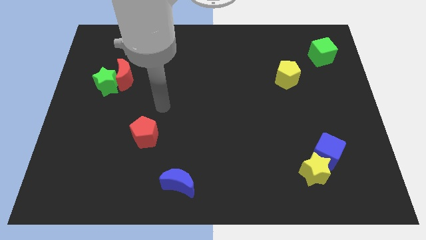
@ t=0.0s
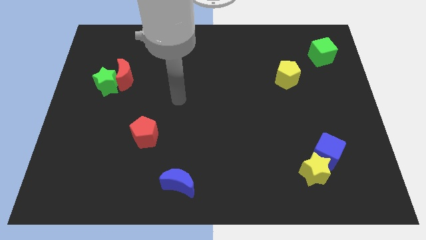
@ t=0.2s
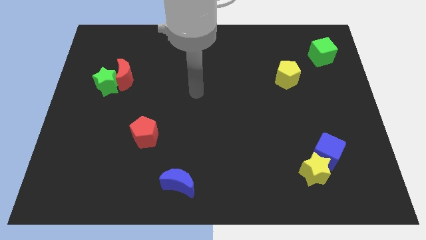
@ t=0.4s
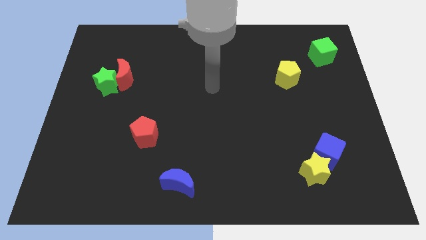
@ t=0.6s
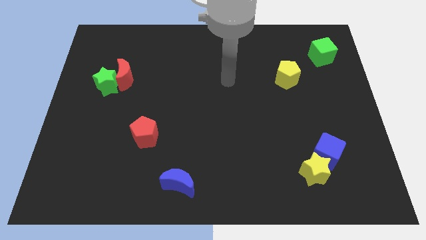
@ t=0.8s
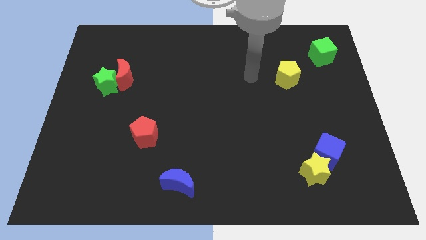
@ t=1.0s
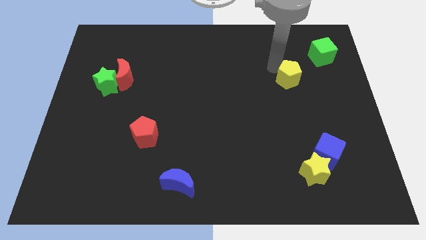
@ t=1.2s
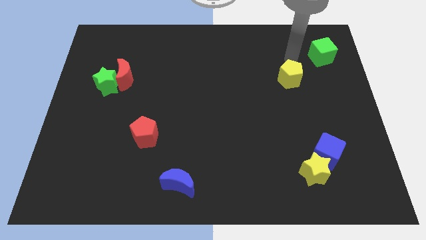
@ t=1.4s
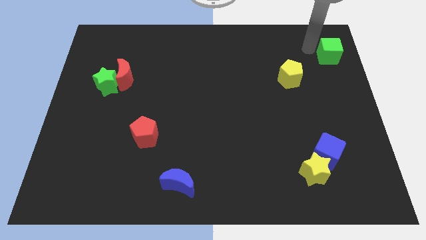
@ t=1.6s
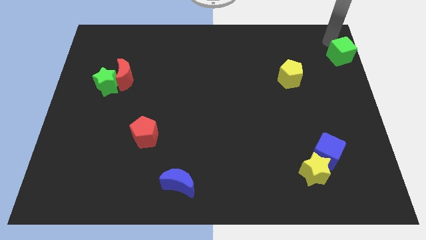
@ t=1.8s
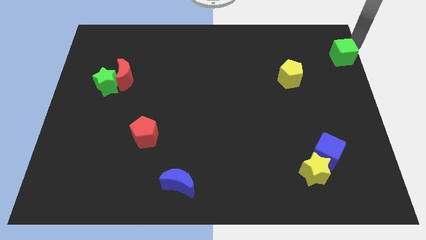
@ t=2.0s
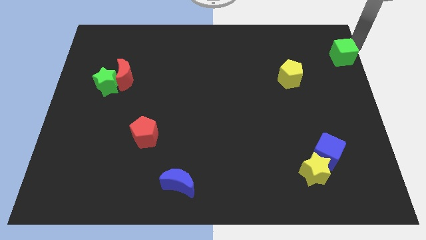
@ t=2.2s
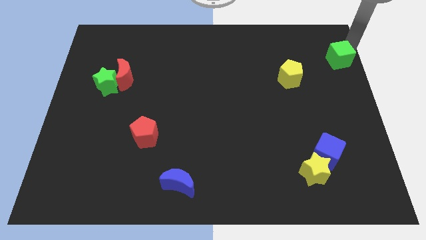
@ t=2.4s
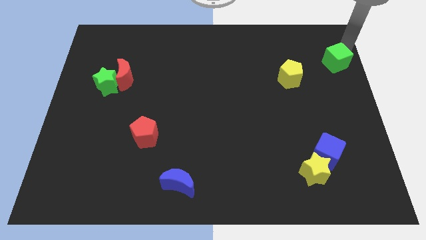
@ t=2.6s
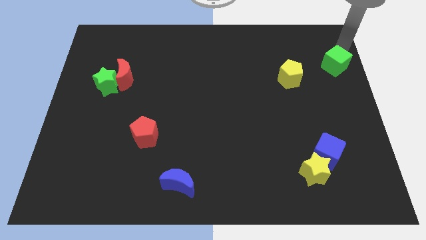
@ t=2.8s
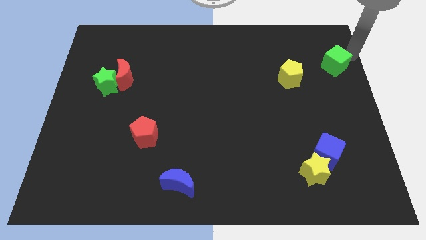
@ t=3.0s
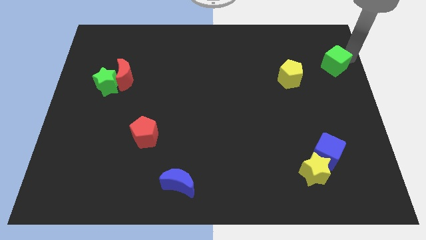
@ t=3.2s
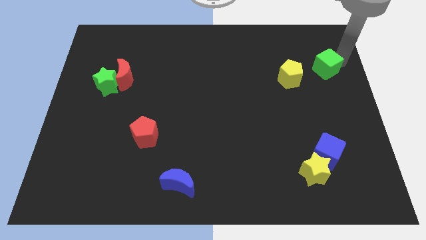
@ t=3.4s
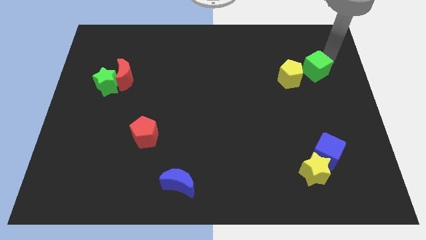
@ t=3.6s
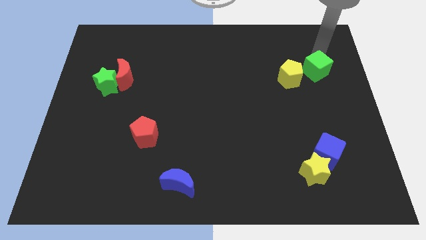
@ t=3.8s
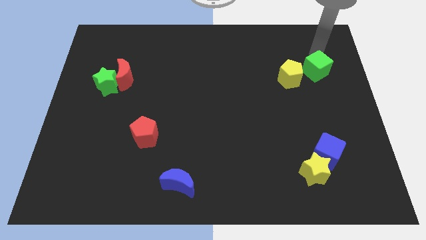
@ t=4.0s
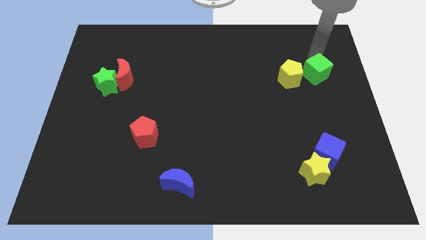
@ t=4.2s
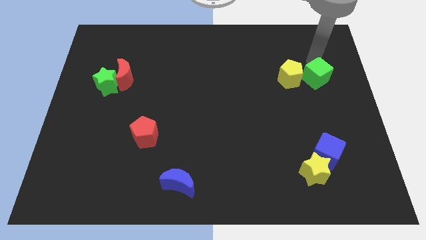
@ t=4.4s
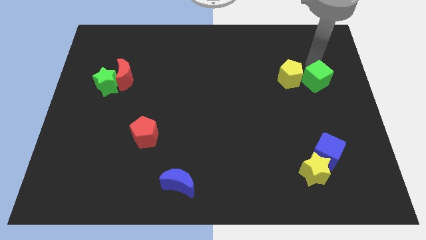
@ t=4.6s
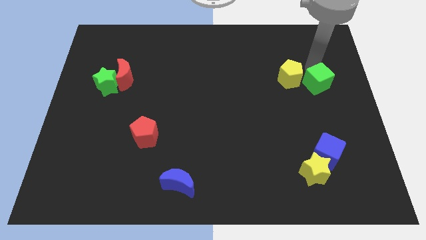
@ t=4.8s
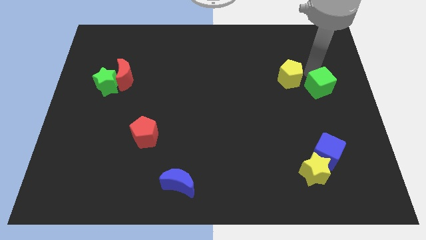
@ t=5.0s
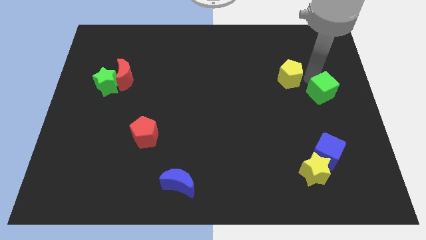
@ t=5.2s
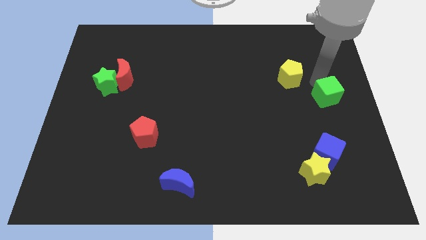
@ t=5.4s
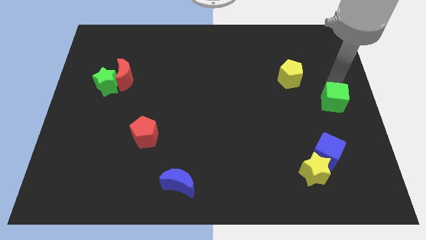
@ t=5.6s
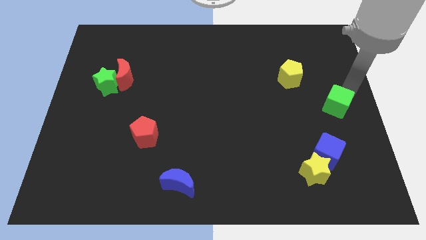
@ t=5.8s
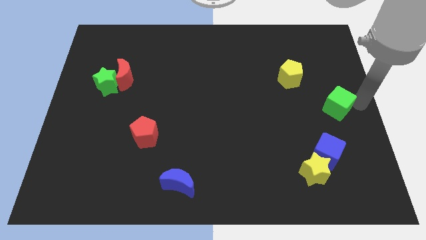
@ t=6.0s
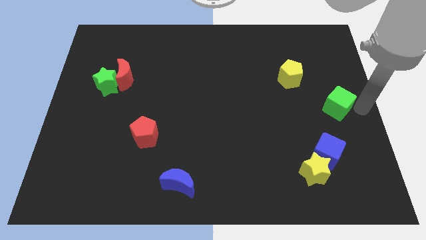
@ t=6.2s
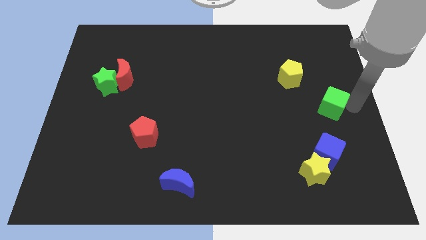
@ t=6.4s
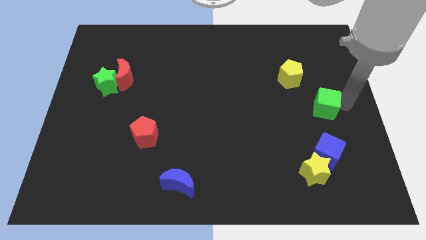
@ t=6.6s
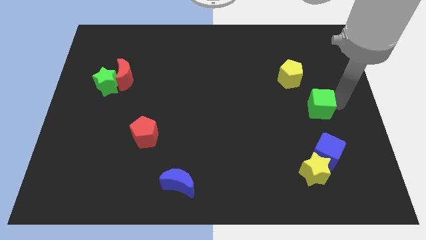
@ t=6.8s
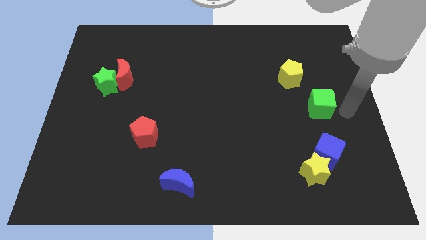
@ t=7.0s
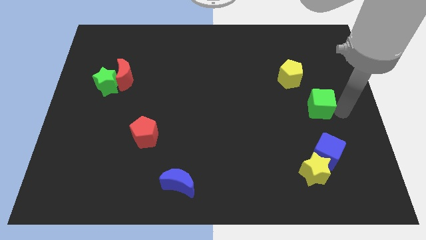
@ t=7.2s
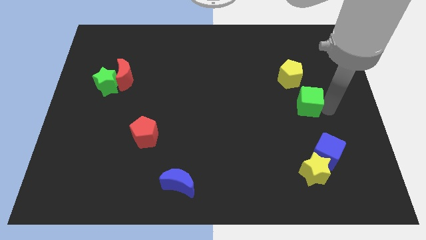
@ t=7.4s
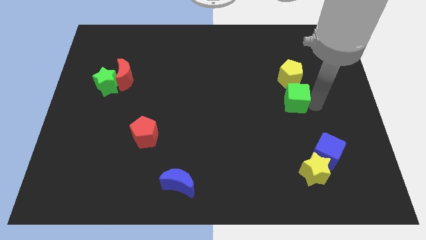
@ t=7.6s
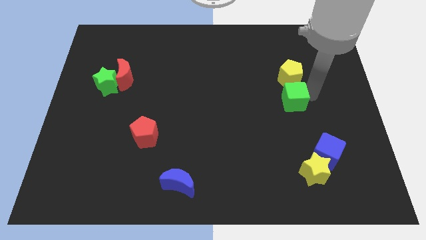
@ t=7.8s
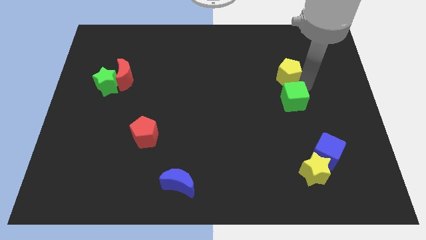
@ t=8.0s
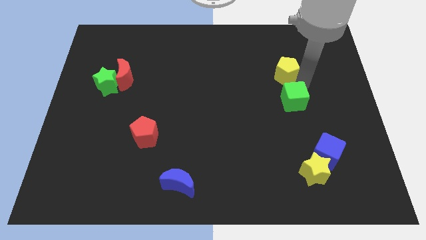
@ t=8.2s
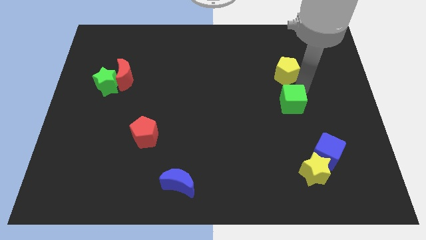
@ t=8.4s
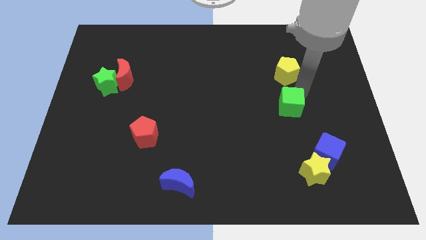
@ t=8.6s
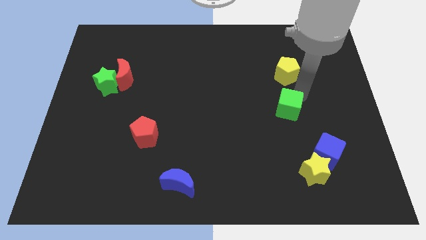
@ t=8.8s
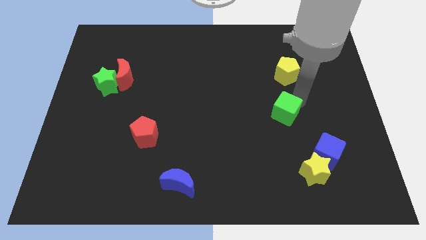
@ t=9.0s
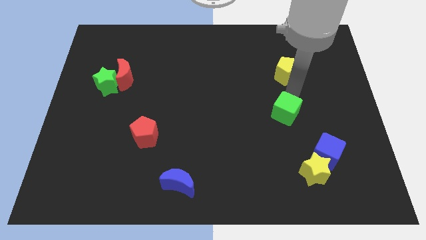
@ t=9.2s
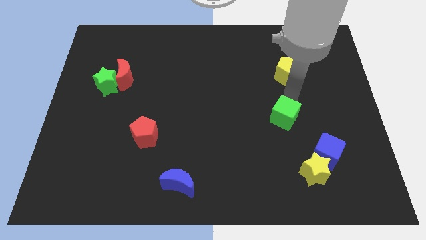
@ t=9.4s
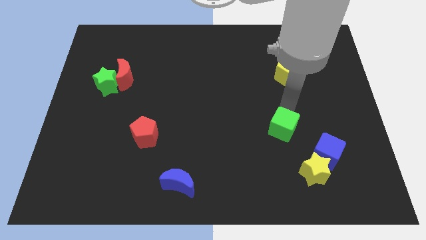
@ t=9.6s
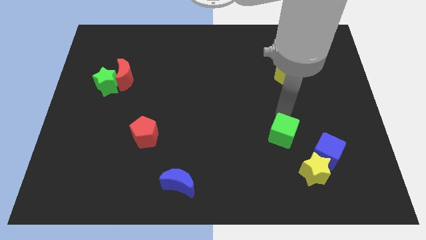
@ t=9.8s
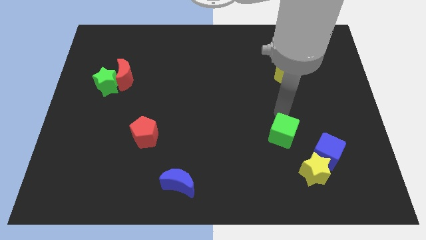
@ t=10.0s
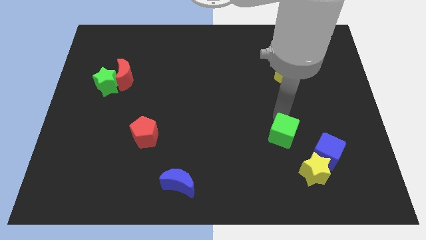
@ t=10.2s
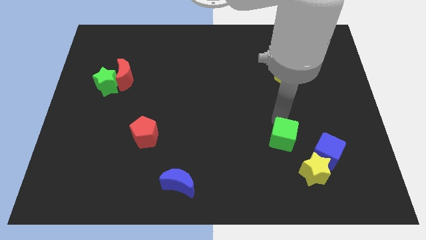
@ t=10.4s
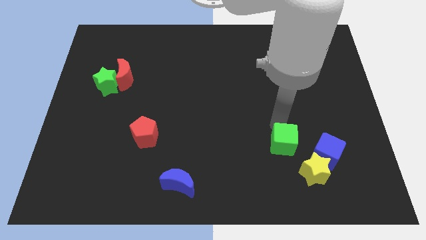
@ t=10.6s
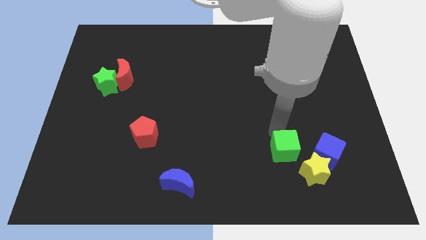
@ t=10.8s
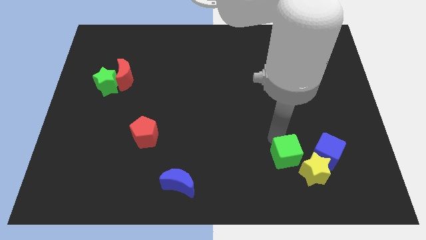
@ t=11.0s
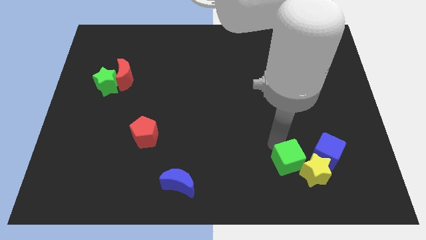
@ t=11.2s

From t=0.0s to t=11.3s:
move the green cube to the bottom left of the blue cube

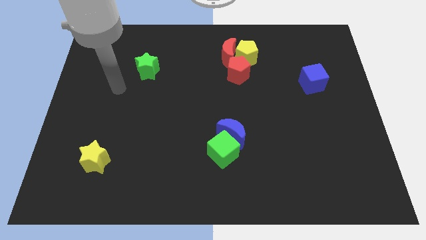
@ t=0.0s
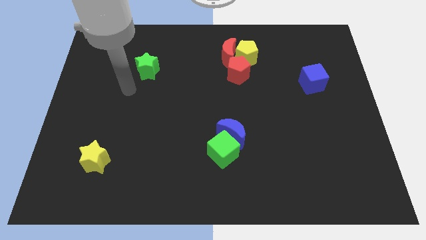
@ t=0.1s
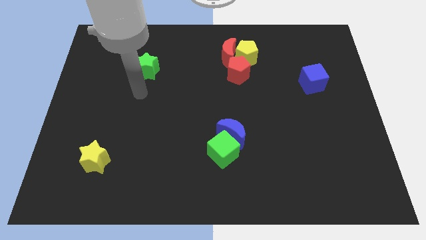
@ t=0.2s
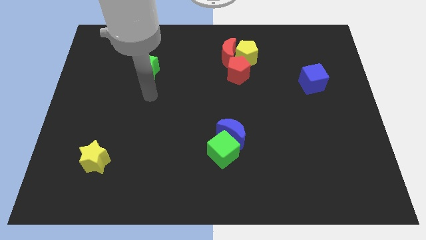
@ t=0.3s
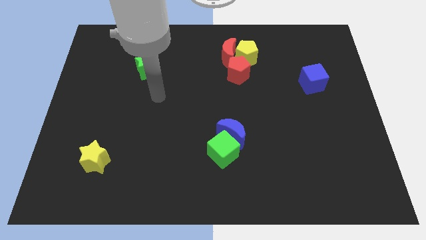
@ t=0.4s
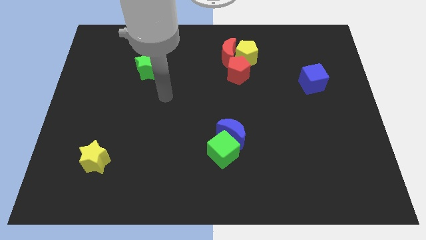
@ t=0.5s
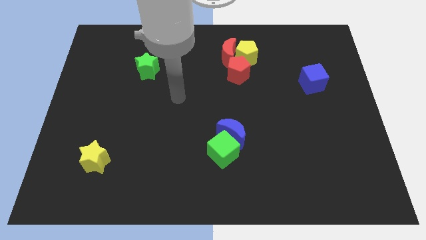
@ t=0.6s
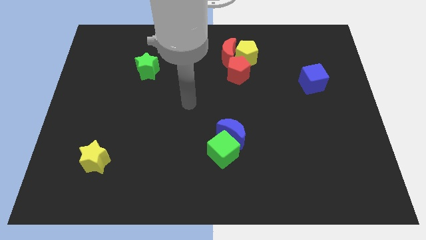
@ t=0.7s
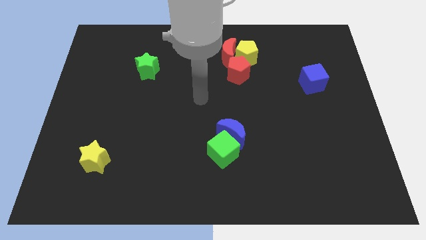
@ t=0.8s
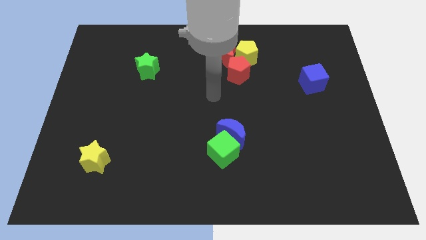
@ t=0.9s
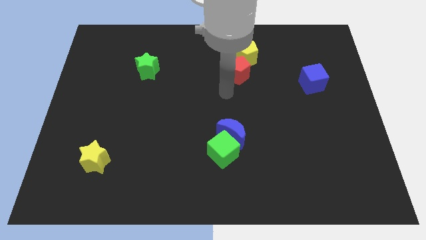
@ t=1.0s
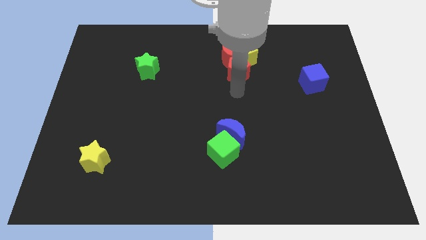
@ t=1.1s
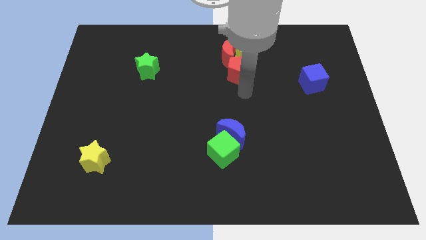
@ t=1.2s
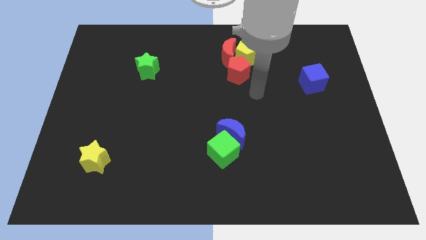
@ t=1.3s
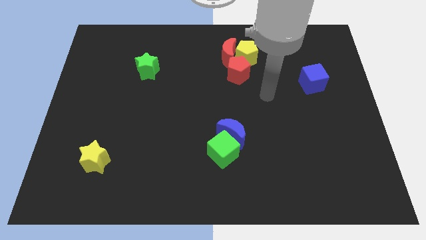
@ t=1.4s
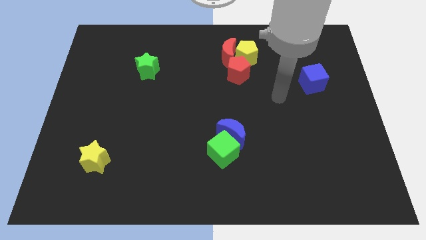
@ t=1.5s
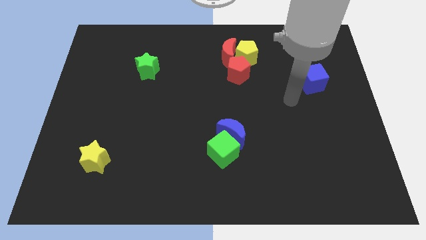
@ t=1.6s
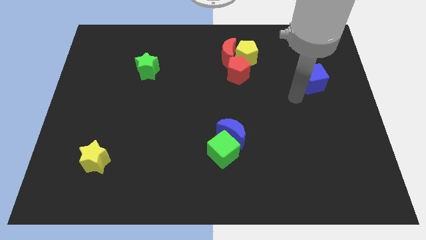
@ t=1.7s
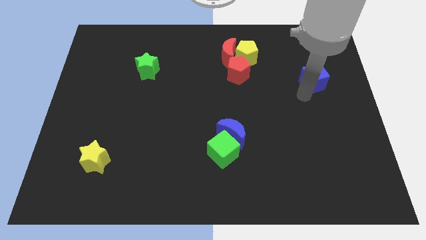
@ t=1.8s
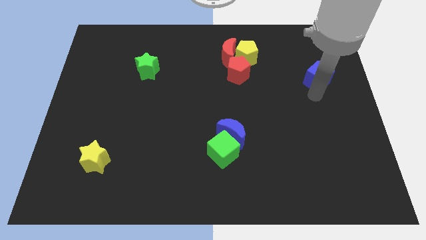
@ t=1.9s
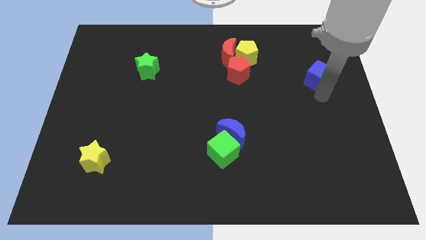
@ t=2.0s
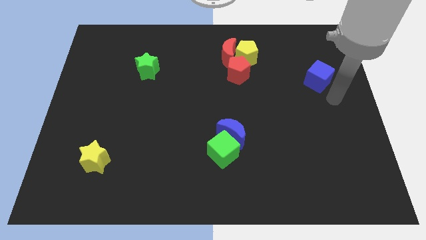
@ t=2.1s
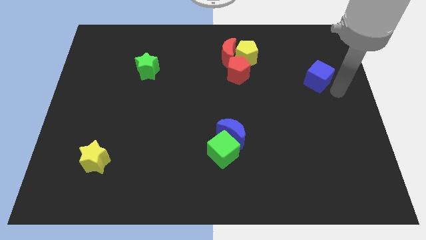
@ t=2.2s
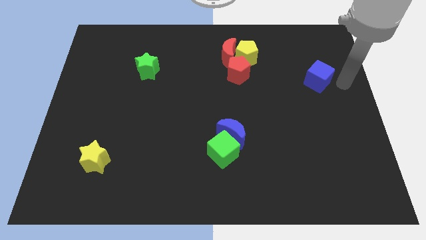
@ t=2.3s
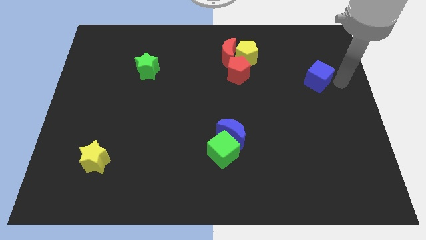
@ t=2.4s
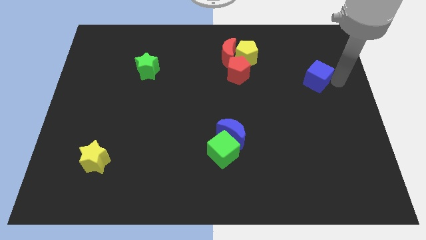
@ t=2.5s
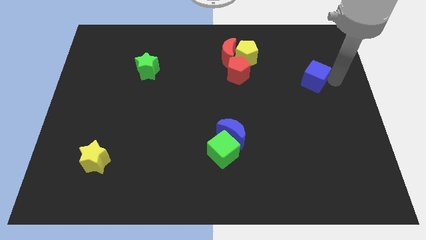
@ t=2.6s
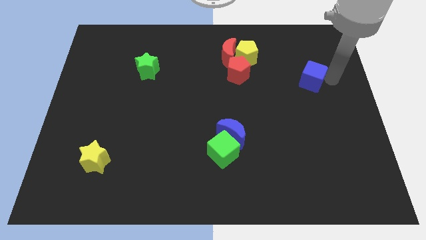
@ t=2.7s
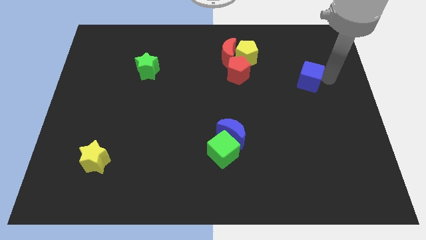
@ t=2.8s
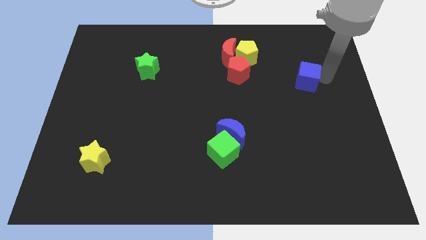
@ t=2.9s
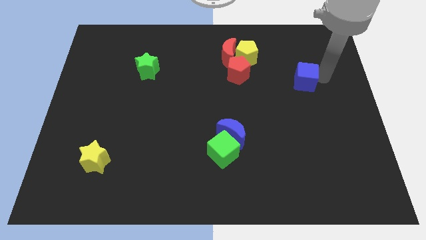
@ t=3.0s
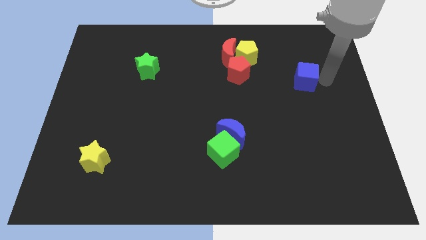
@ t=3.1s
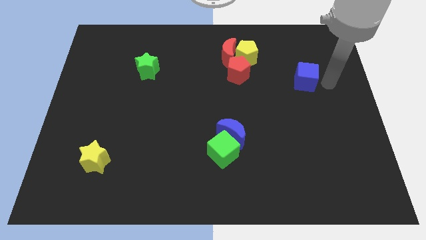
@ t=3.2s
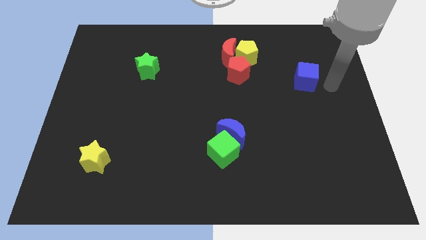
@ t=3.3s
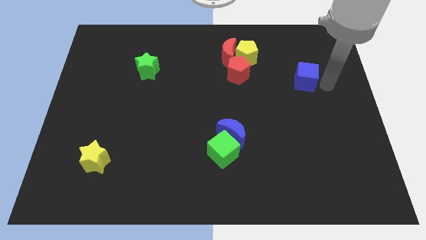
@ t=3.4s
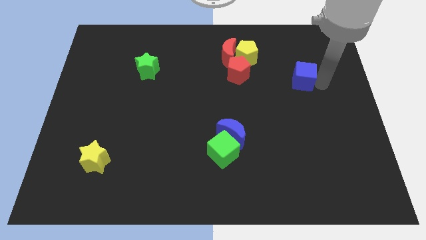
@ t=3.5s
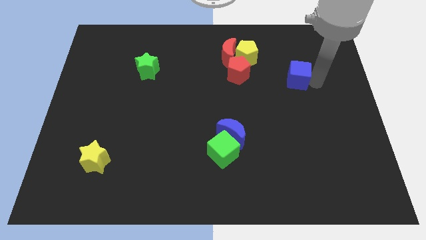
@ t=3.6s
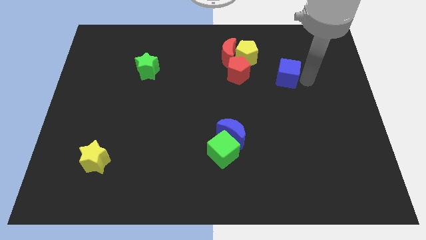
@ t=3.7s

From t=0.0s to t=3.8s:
push the blue cube diagonally down and to the right of the yellow pentagon
